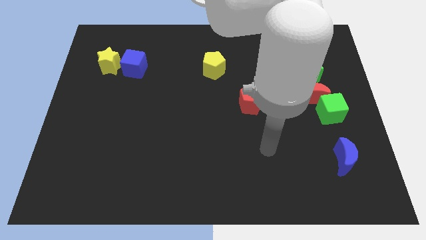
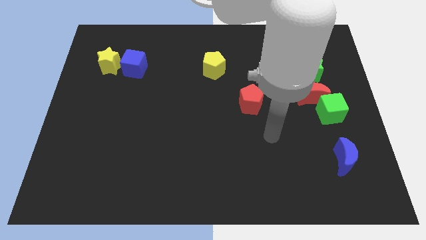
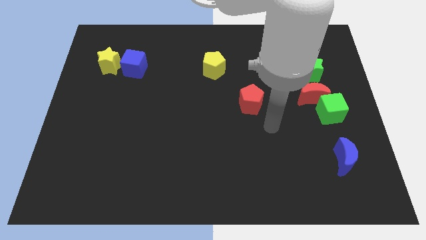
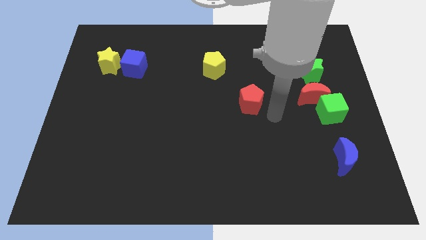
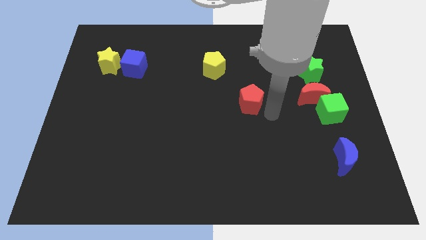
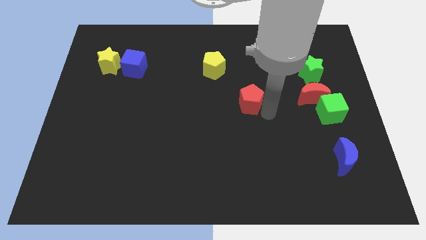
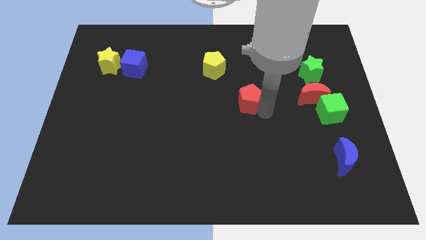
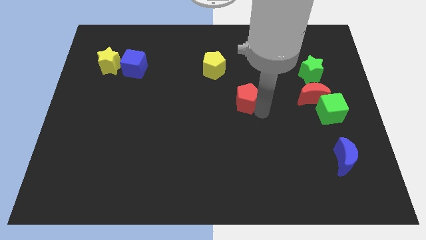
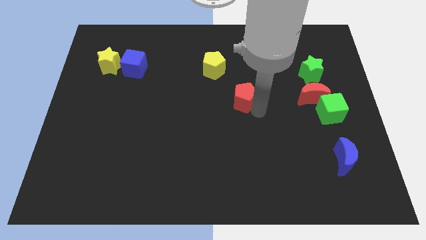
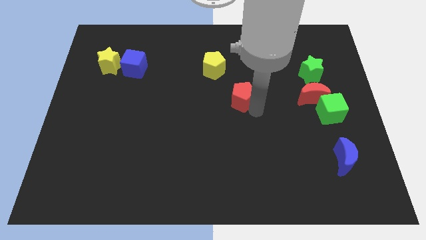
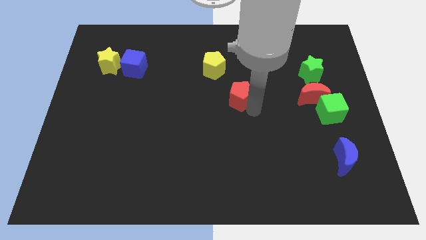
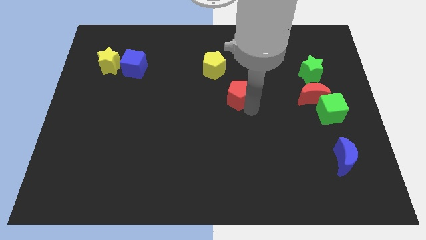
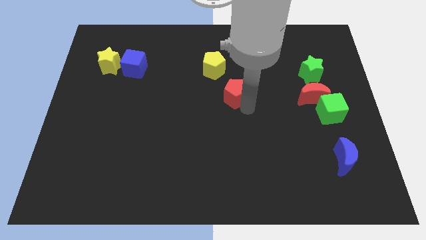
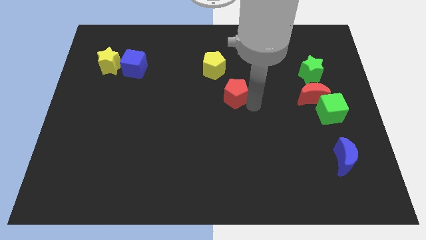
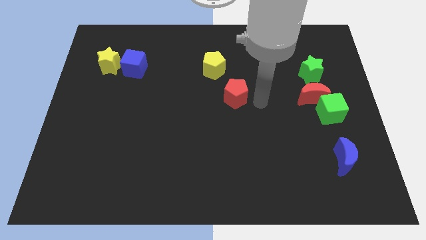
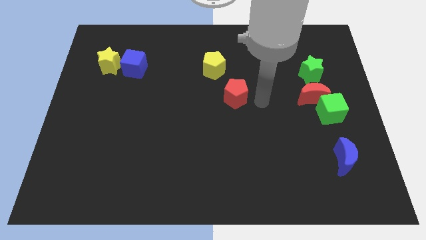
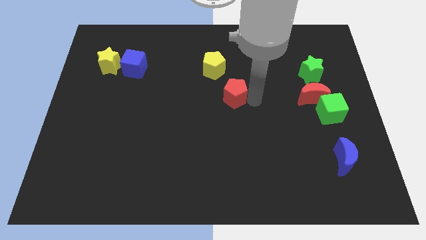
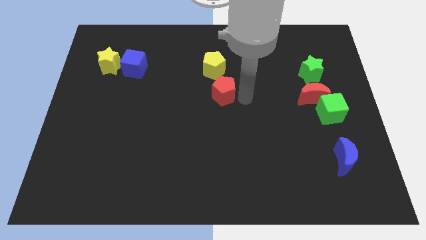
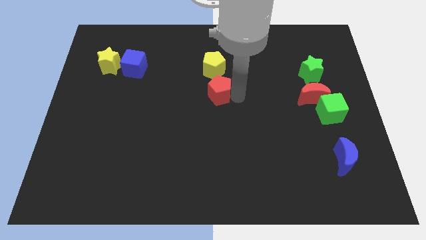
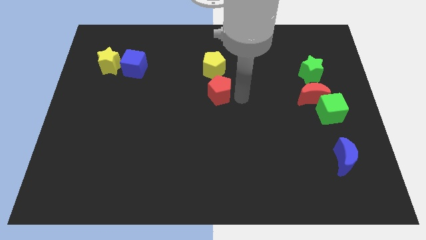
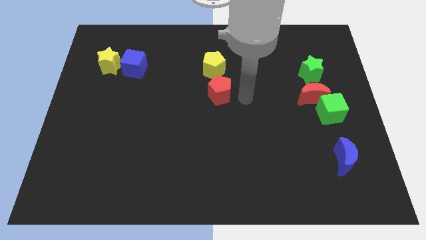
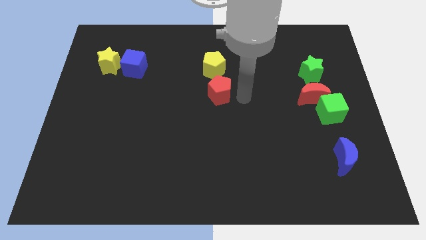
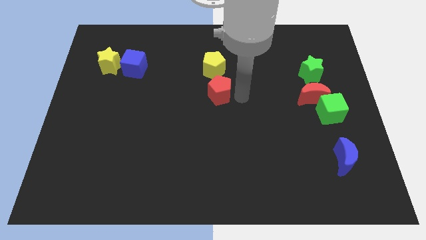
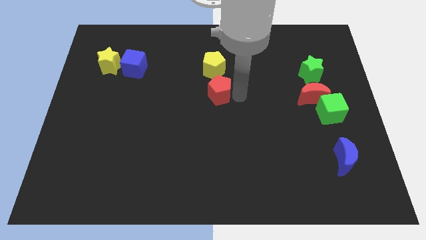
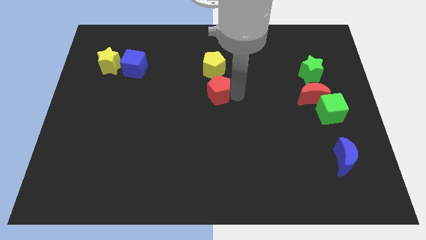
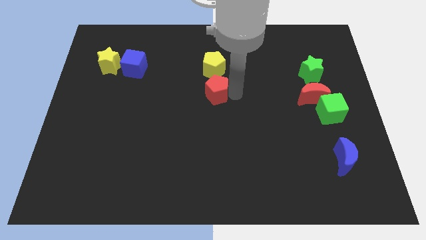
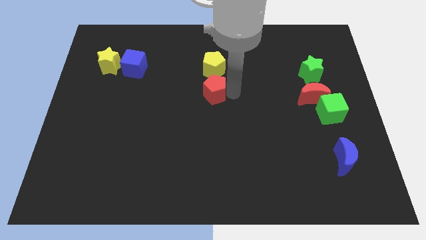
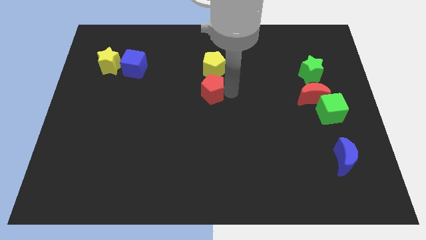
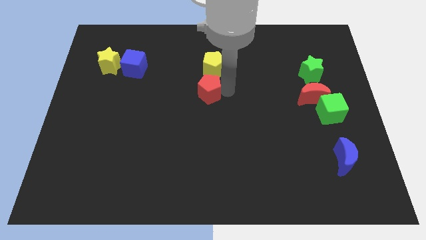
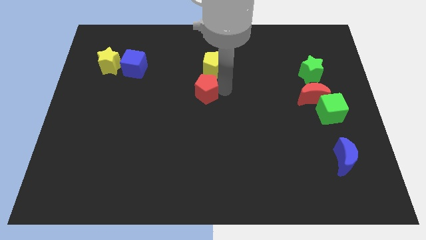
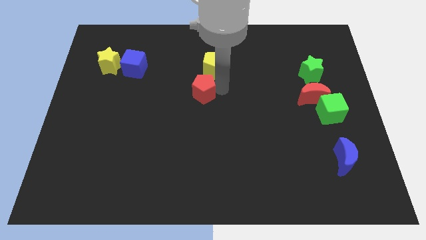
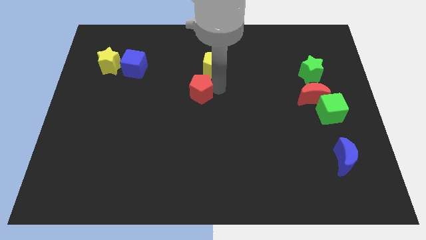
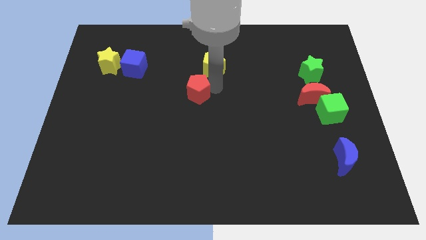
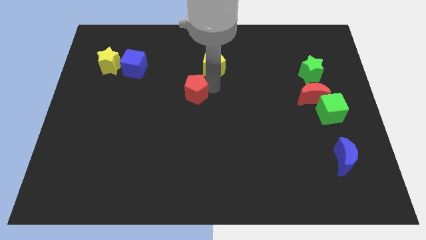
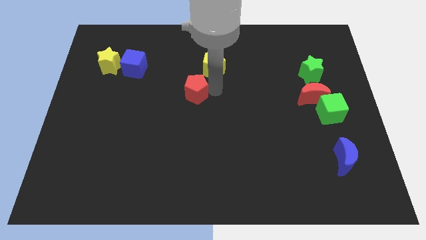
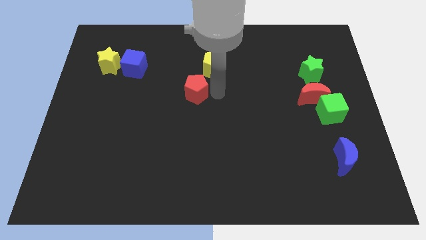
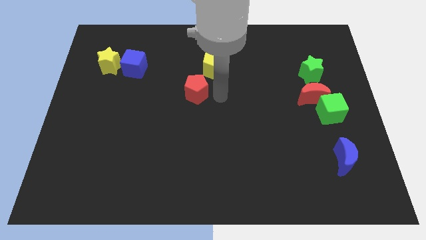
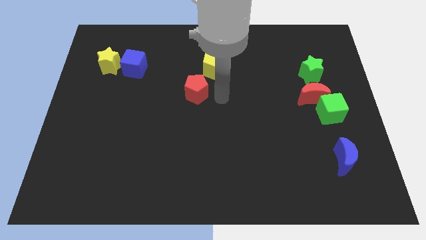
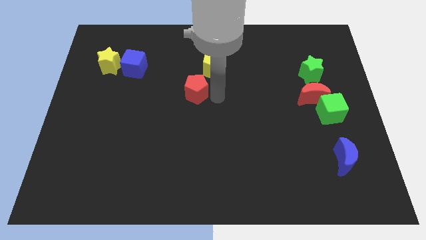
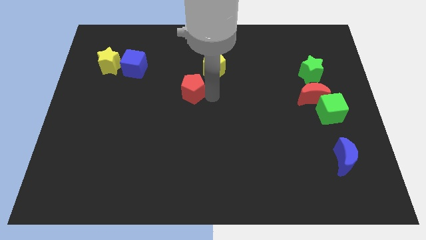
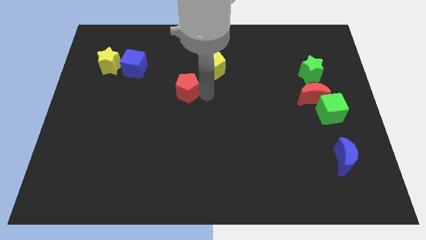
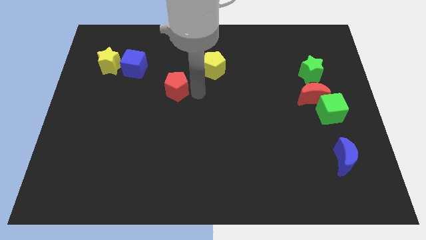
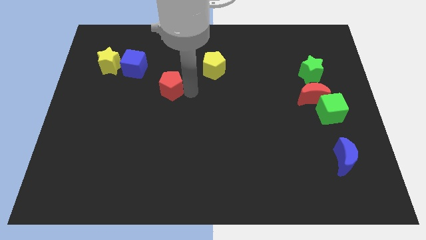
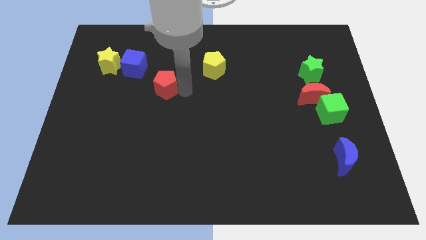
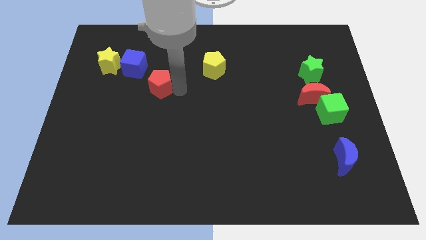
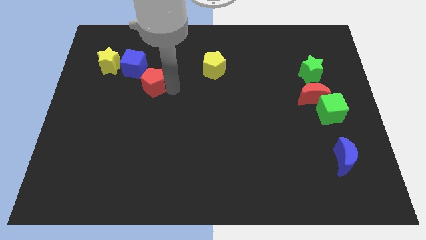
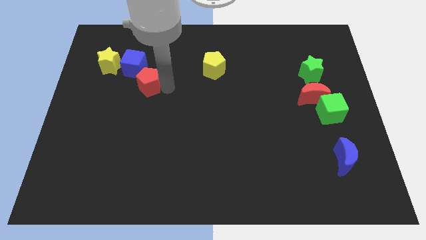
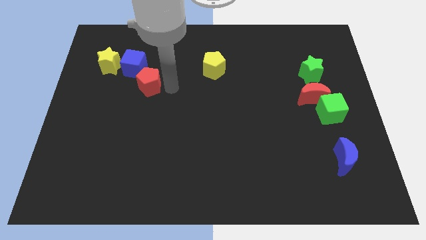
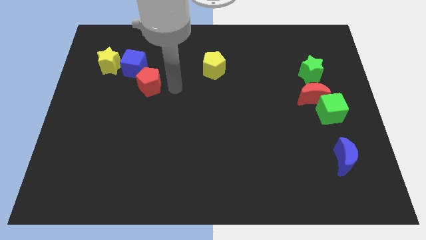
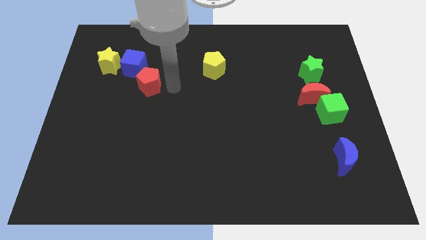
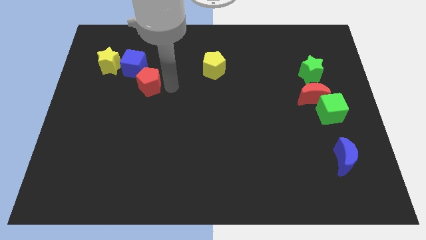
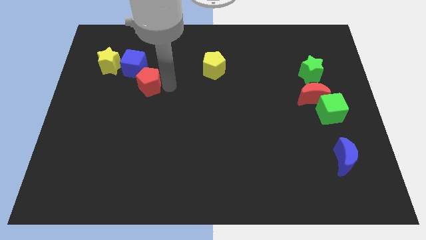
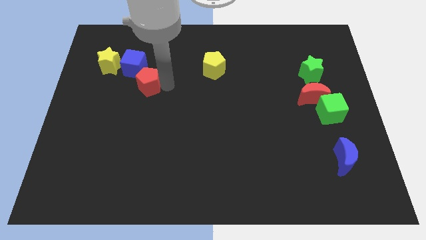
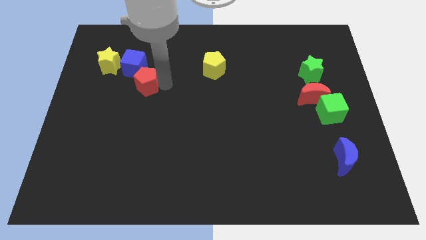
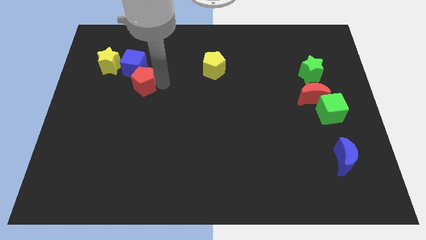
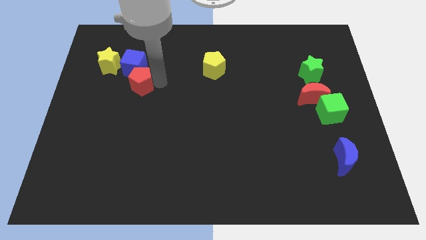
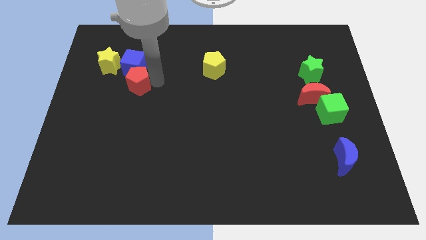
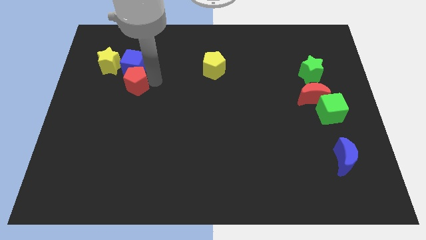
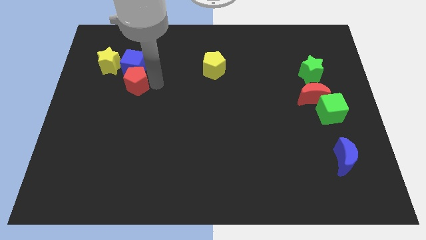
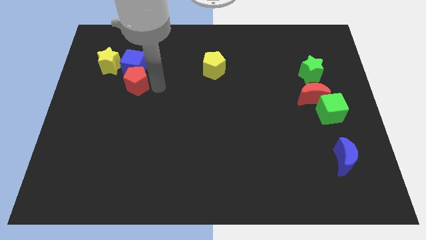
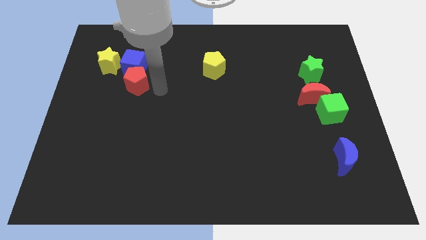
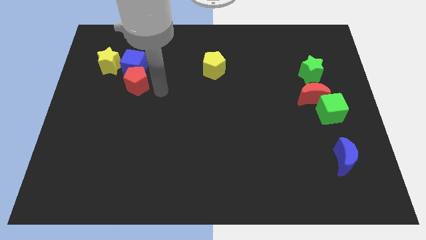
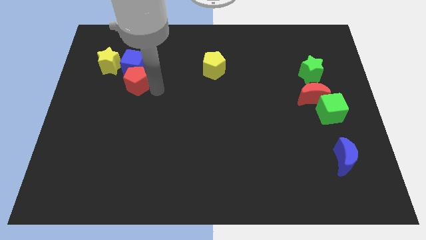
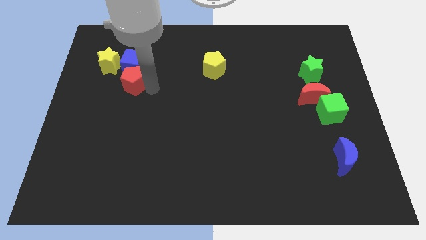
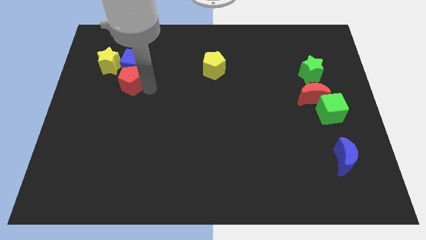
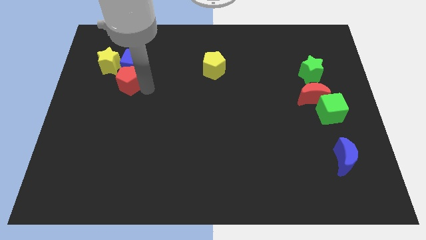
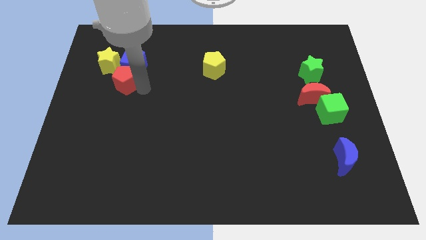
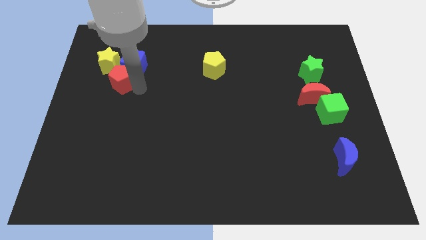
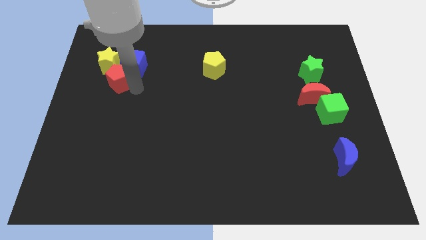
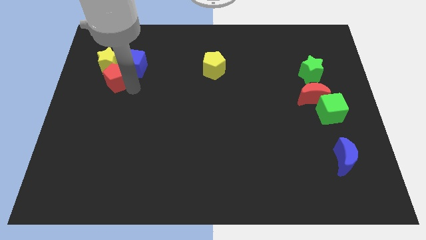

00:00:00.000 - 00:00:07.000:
put the red pentagon towards the yellow star

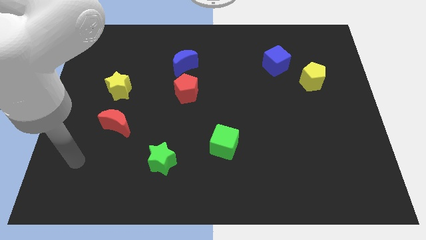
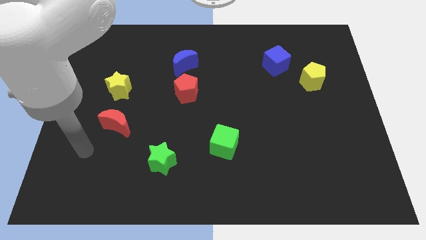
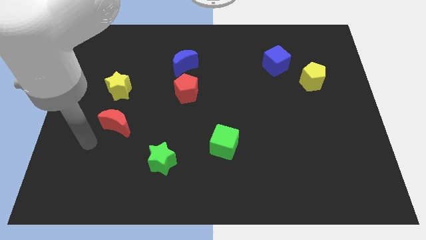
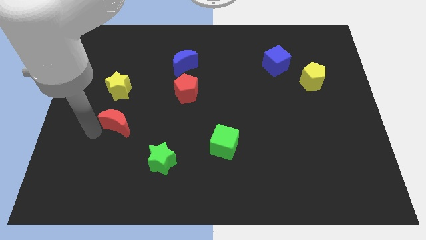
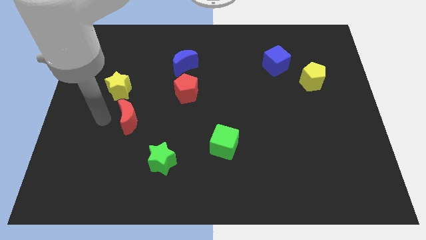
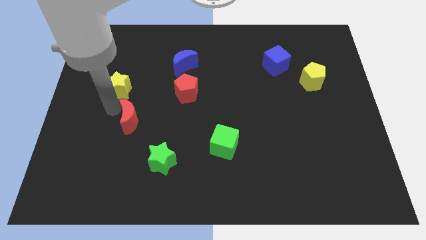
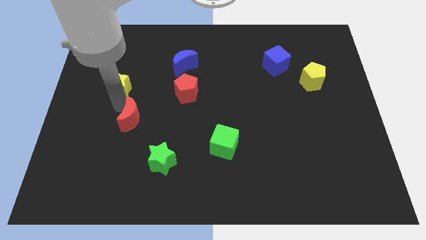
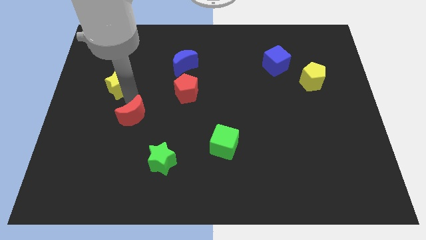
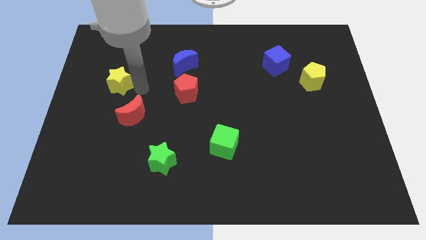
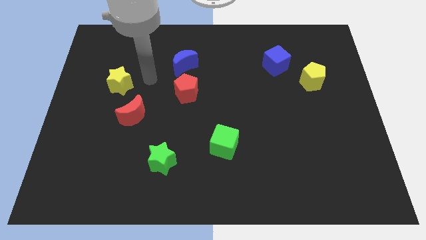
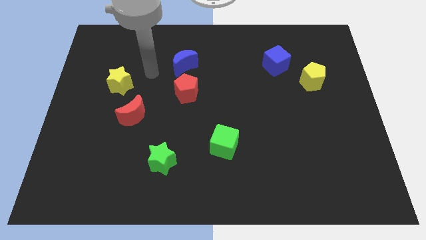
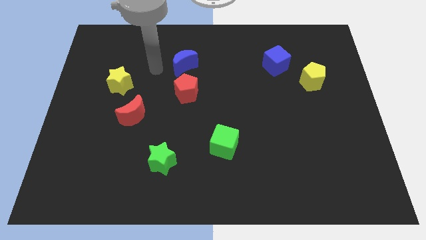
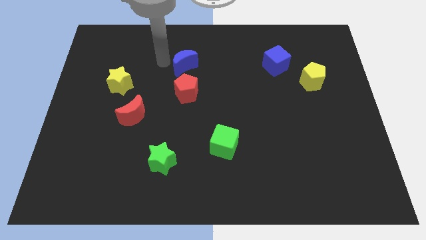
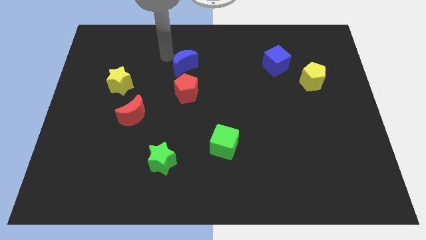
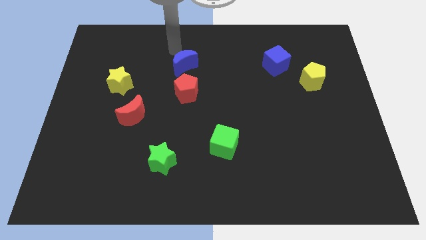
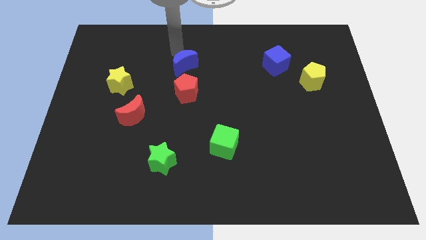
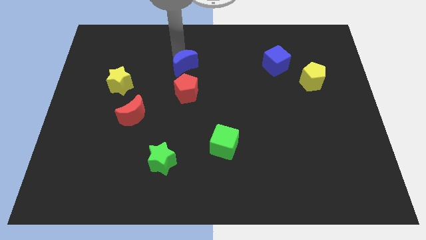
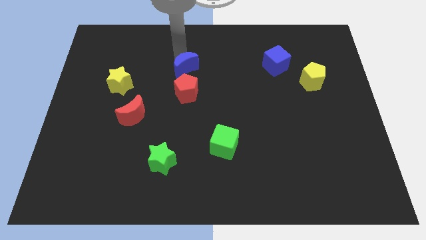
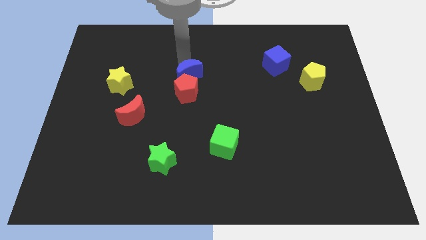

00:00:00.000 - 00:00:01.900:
put the blue moon close to the red pentagon
